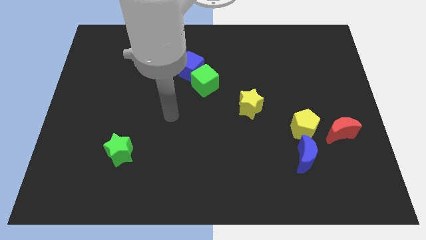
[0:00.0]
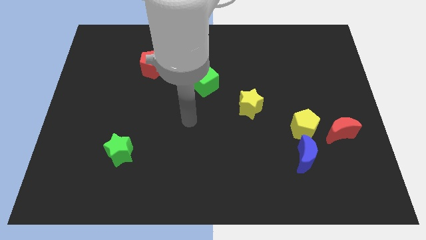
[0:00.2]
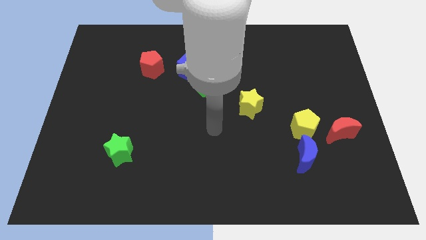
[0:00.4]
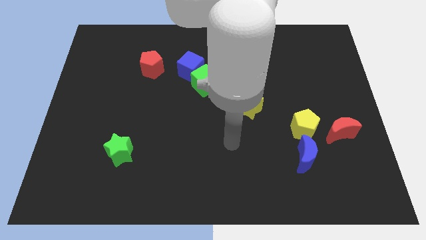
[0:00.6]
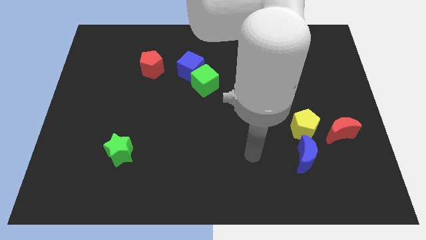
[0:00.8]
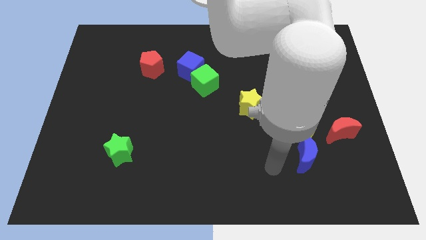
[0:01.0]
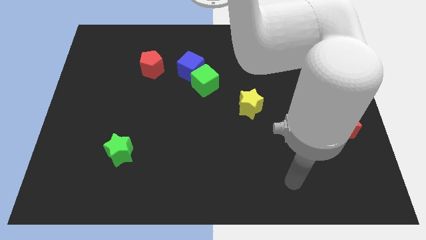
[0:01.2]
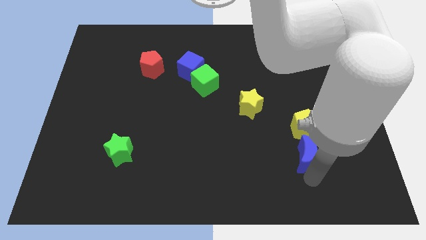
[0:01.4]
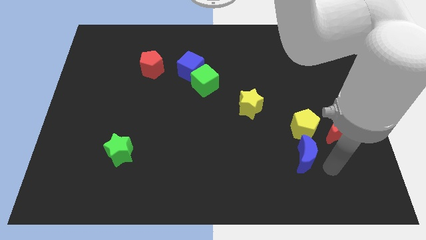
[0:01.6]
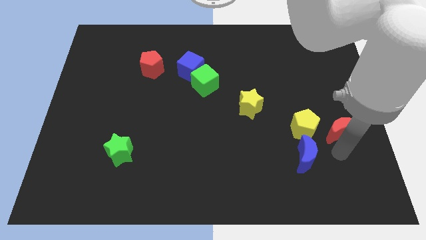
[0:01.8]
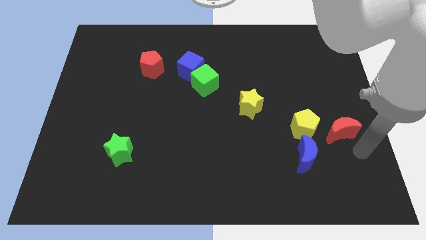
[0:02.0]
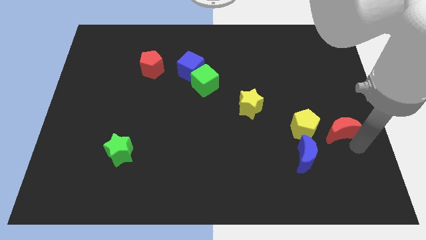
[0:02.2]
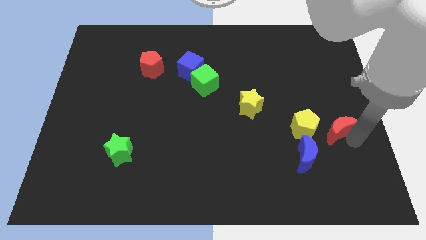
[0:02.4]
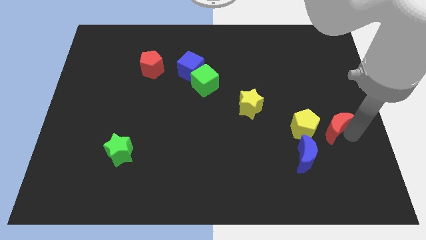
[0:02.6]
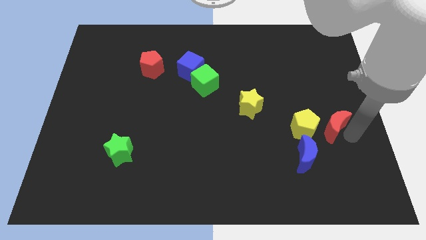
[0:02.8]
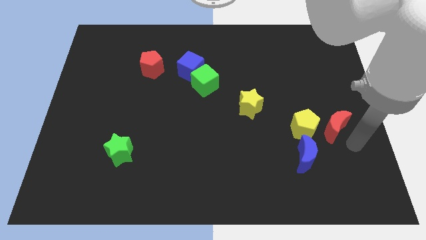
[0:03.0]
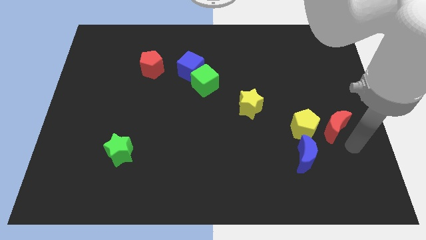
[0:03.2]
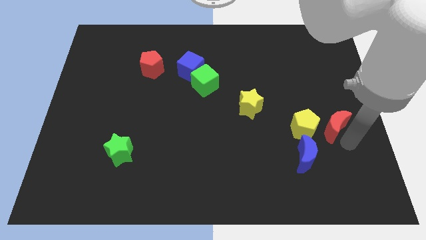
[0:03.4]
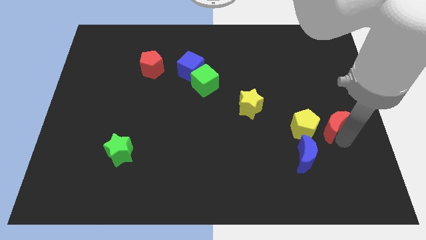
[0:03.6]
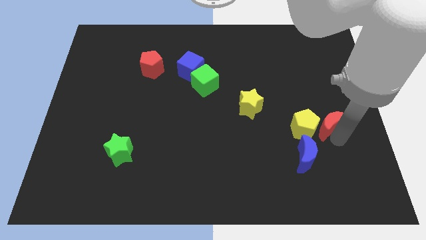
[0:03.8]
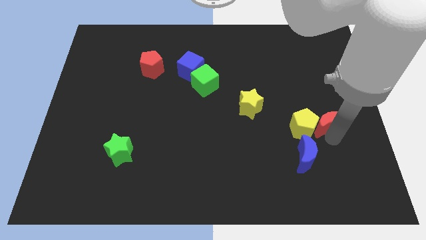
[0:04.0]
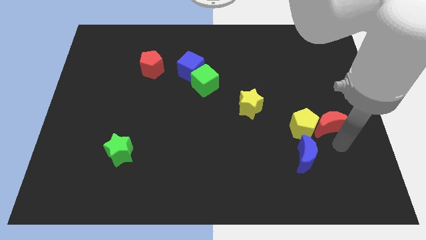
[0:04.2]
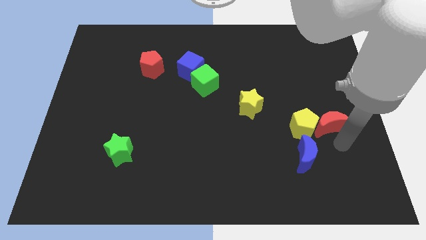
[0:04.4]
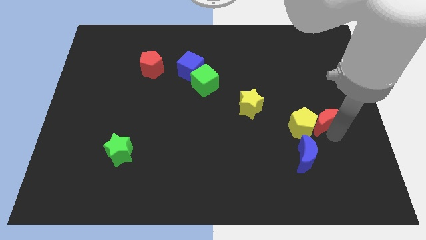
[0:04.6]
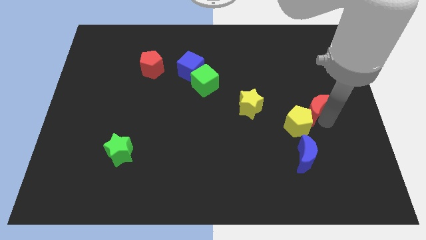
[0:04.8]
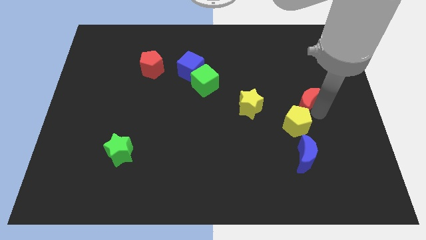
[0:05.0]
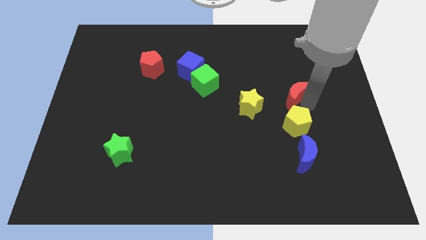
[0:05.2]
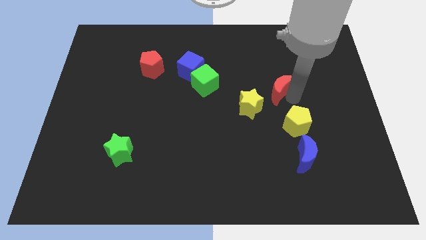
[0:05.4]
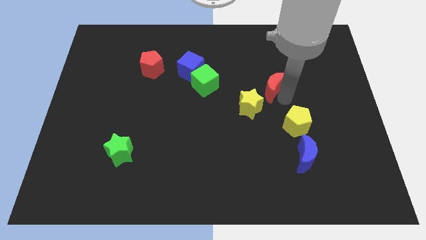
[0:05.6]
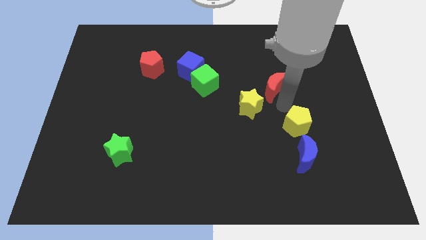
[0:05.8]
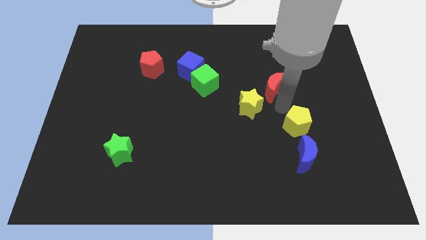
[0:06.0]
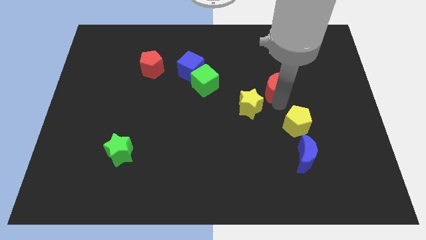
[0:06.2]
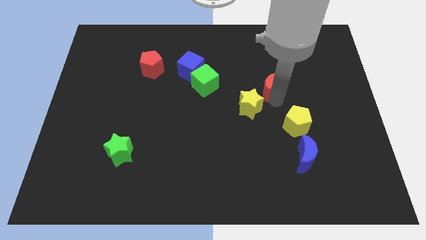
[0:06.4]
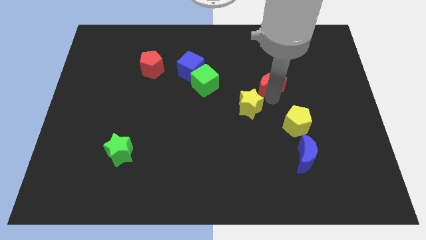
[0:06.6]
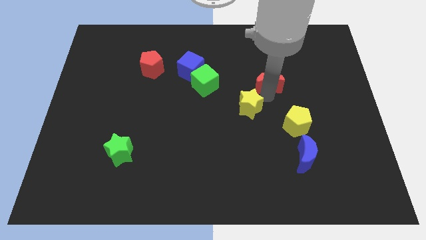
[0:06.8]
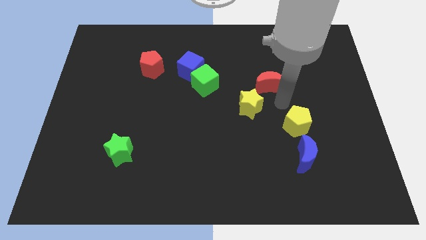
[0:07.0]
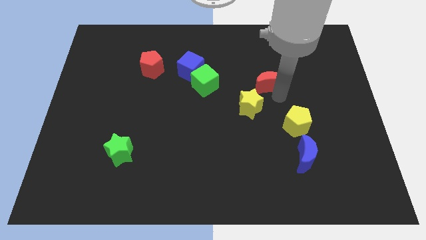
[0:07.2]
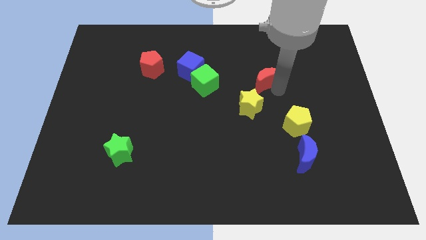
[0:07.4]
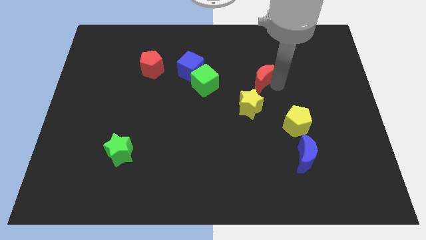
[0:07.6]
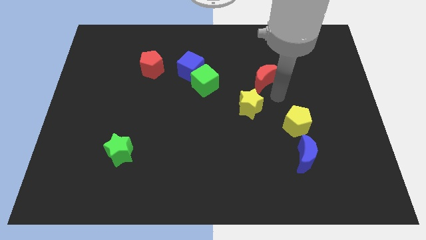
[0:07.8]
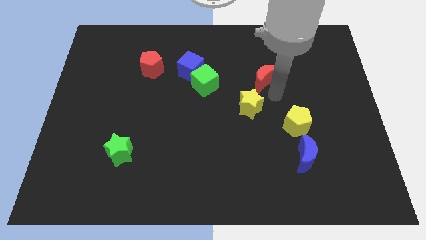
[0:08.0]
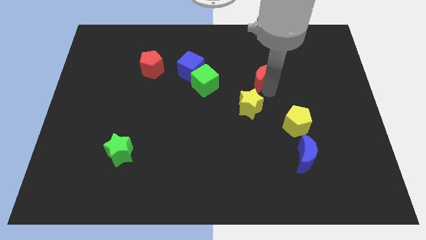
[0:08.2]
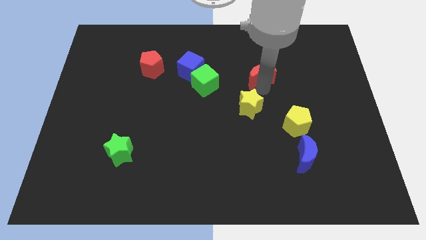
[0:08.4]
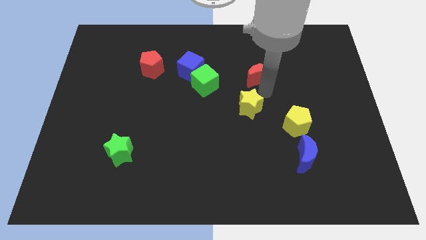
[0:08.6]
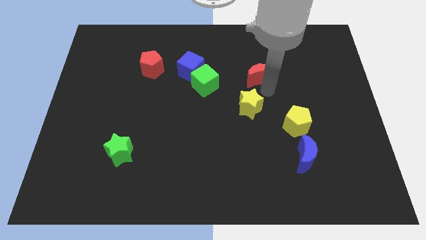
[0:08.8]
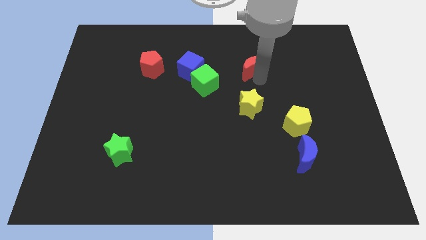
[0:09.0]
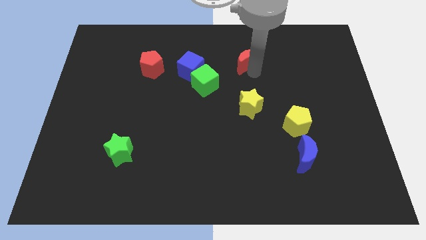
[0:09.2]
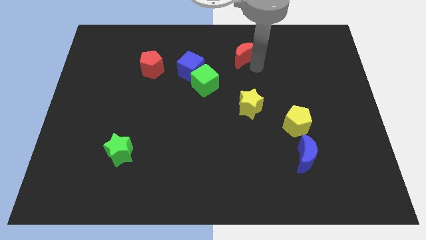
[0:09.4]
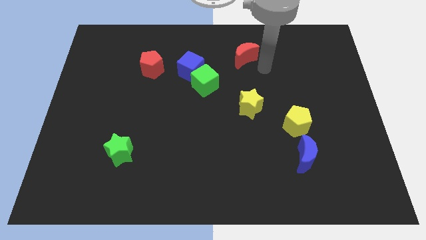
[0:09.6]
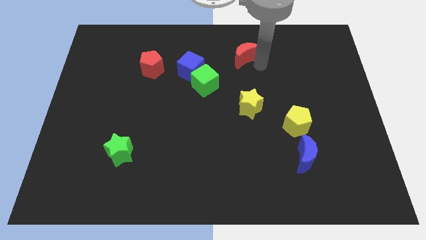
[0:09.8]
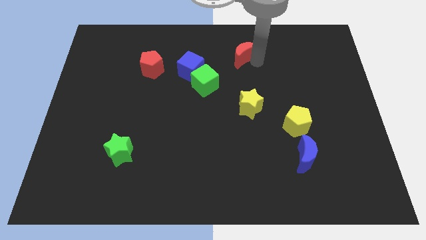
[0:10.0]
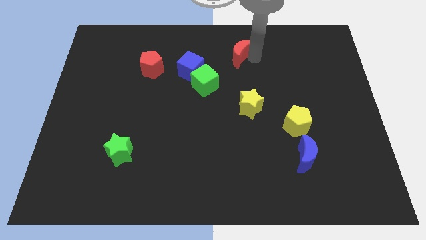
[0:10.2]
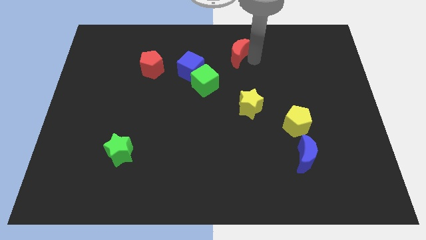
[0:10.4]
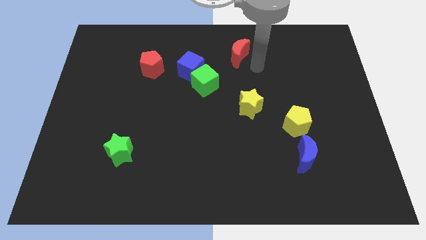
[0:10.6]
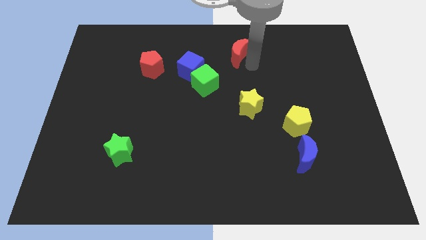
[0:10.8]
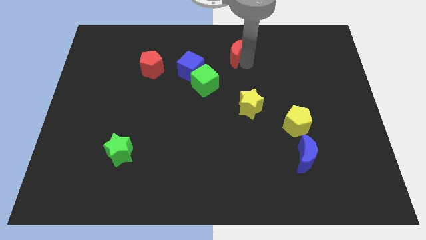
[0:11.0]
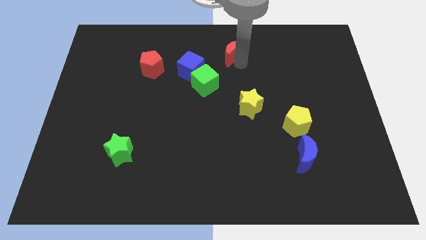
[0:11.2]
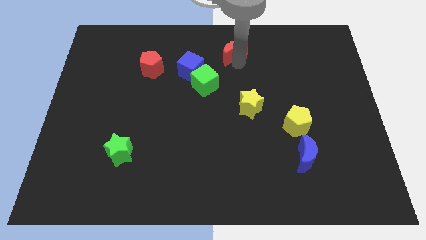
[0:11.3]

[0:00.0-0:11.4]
move the red moon to the towards your base

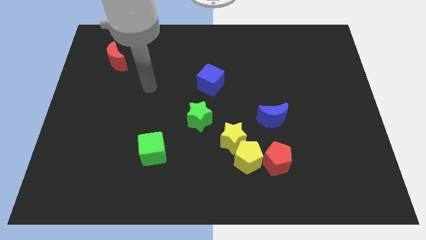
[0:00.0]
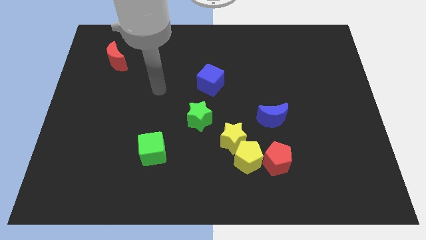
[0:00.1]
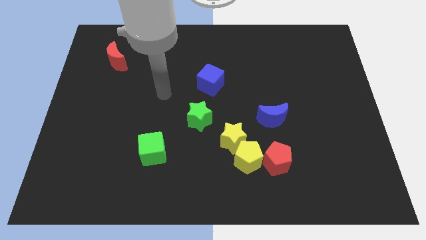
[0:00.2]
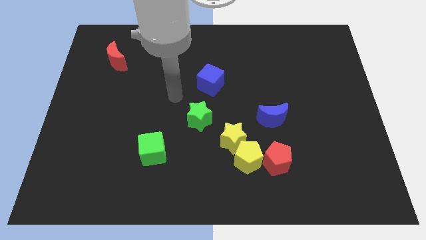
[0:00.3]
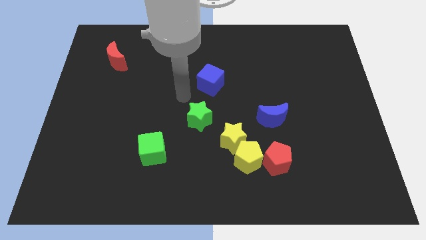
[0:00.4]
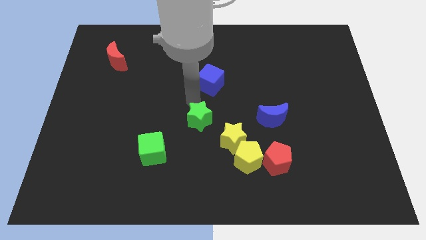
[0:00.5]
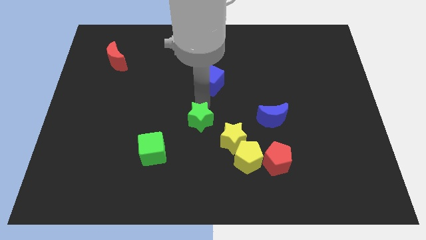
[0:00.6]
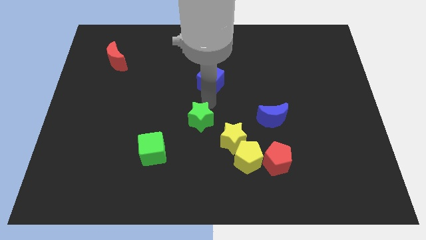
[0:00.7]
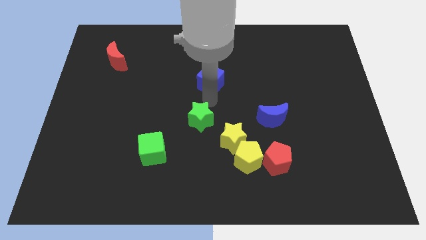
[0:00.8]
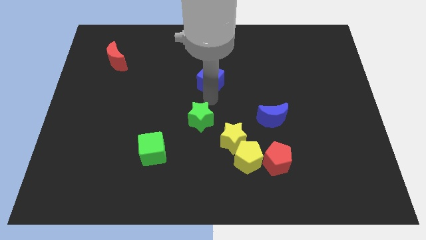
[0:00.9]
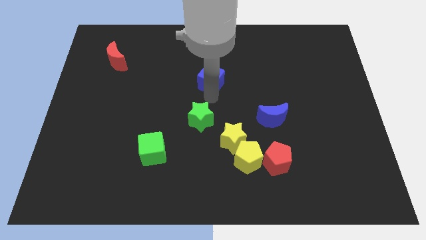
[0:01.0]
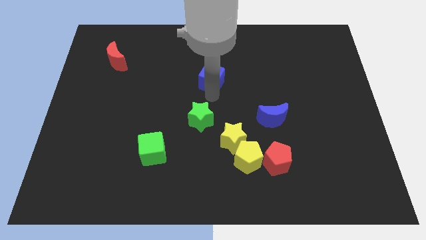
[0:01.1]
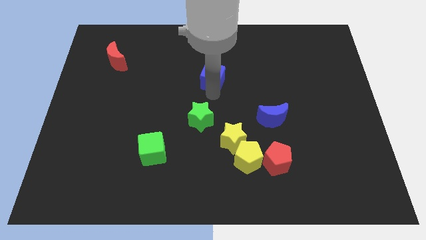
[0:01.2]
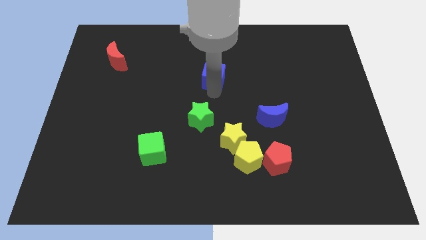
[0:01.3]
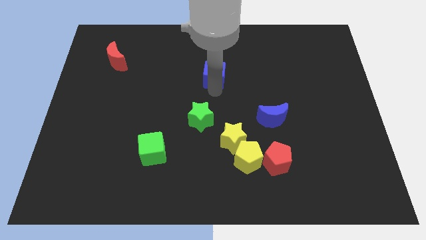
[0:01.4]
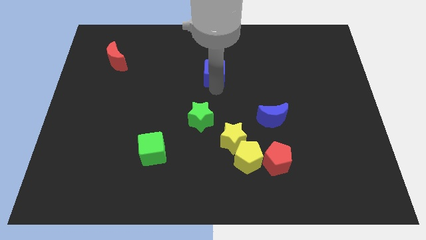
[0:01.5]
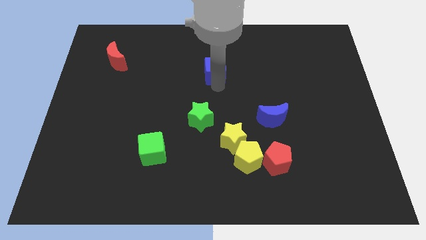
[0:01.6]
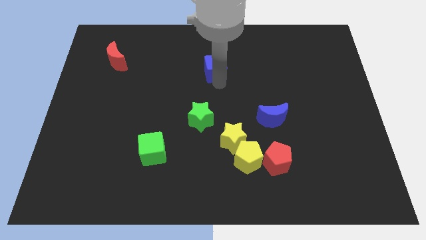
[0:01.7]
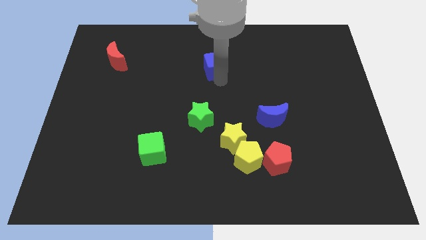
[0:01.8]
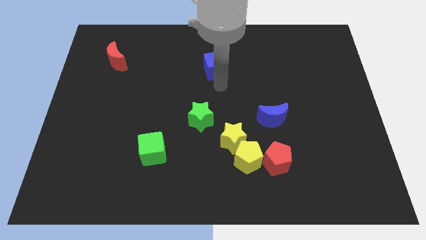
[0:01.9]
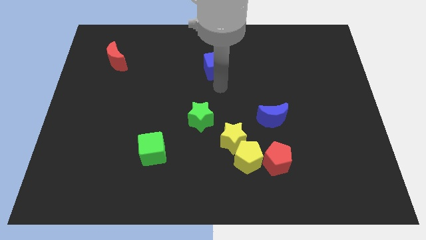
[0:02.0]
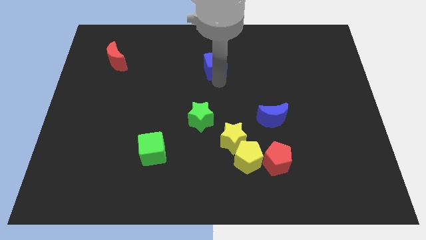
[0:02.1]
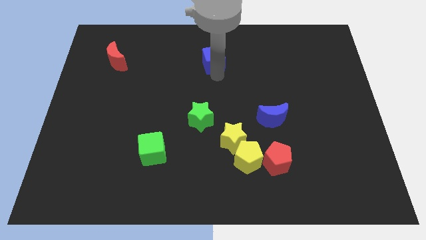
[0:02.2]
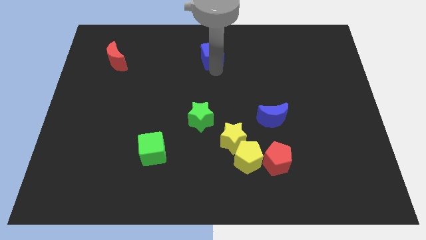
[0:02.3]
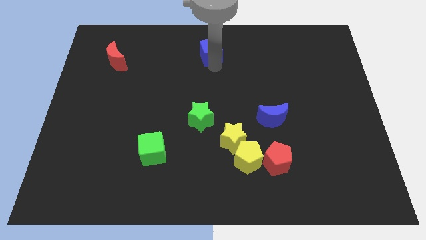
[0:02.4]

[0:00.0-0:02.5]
put the blue cube to the top
